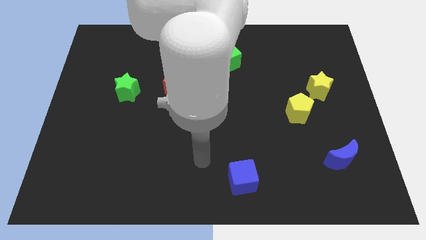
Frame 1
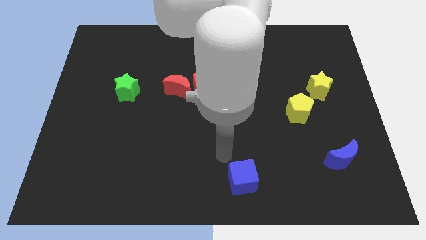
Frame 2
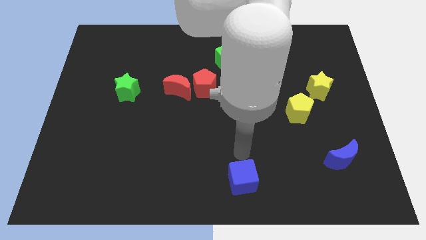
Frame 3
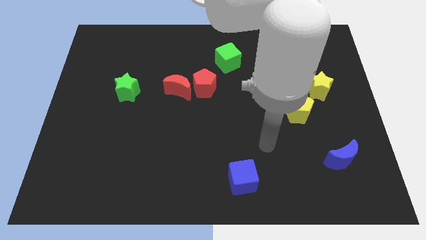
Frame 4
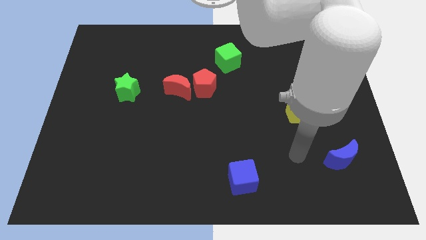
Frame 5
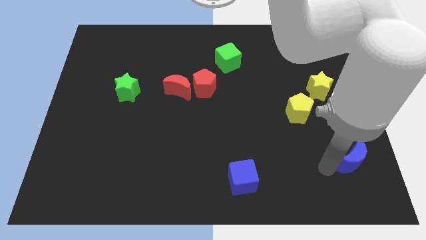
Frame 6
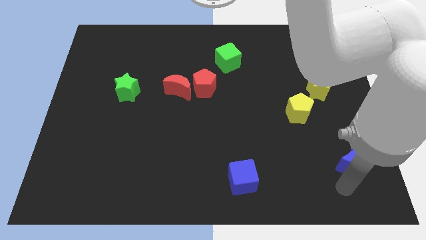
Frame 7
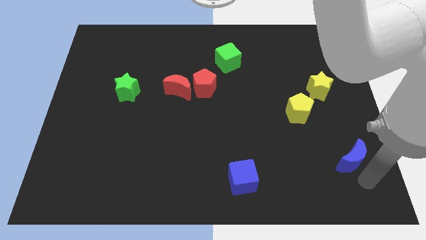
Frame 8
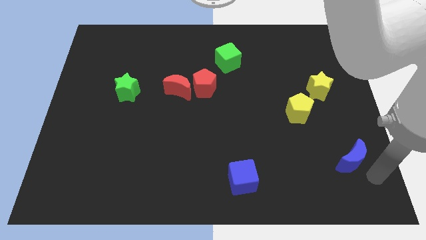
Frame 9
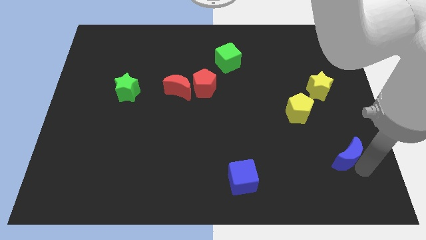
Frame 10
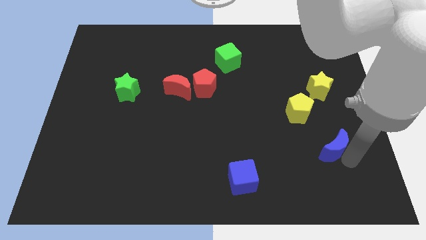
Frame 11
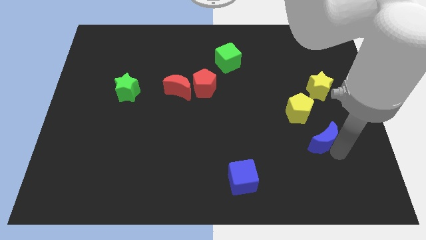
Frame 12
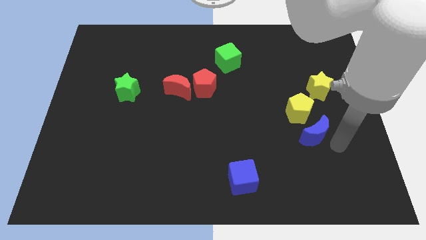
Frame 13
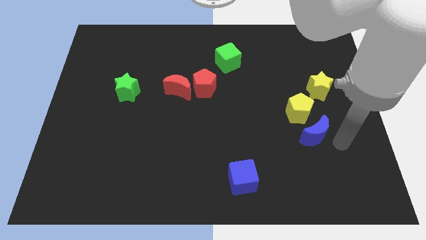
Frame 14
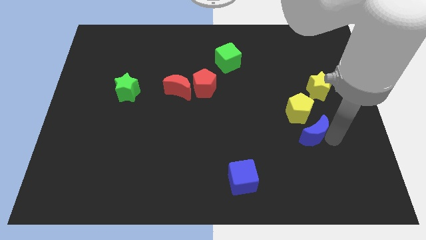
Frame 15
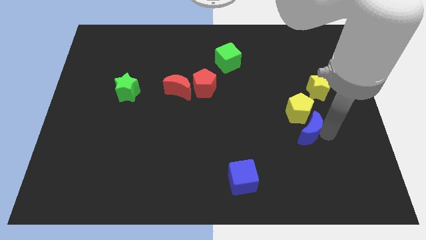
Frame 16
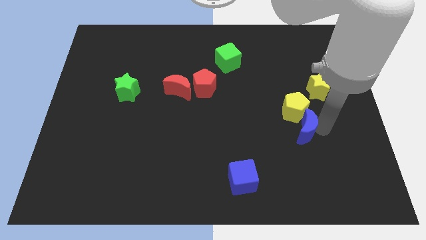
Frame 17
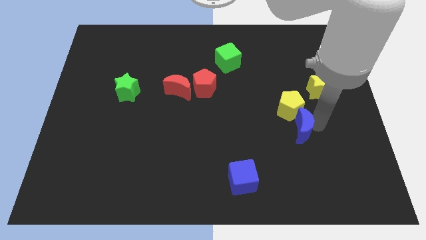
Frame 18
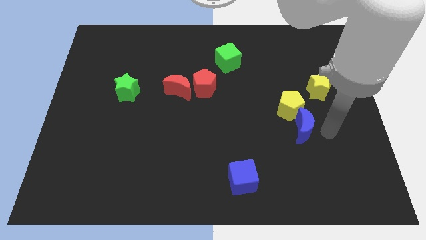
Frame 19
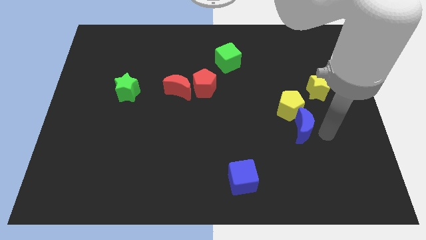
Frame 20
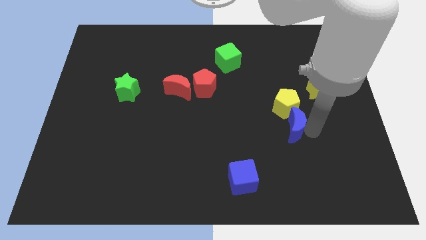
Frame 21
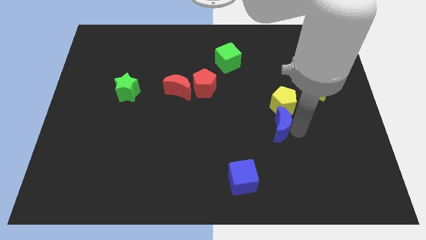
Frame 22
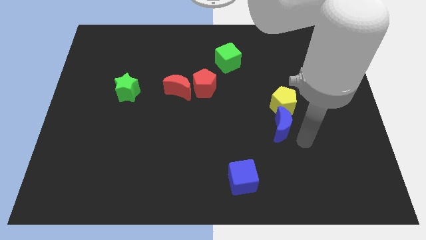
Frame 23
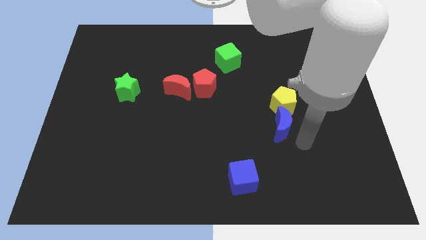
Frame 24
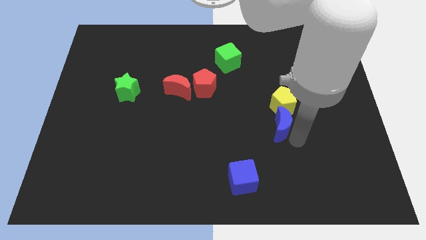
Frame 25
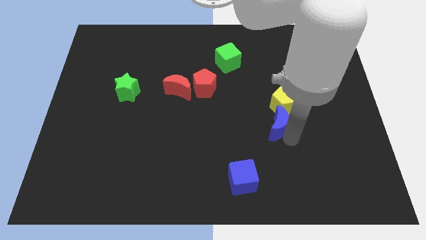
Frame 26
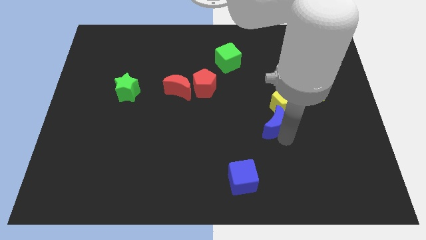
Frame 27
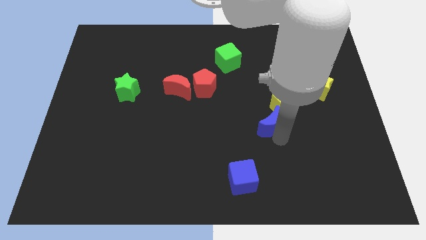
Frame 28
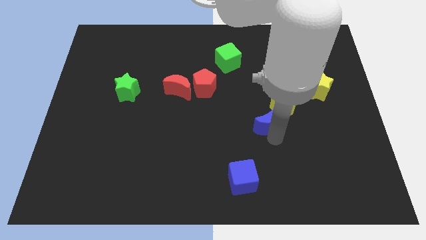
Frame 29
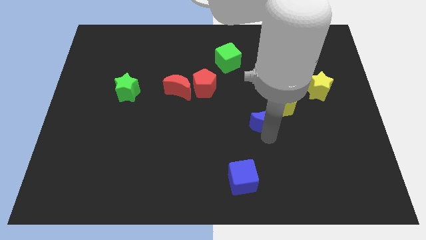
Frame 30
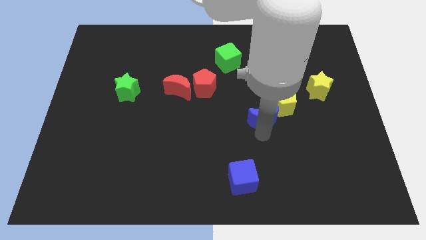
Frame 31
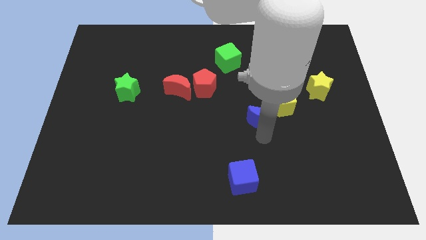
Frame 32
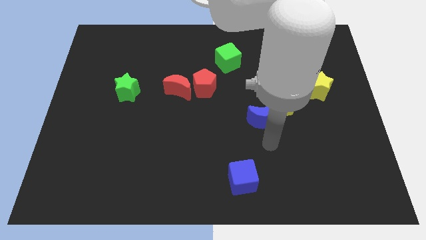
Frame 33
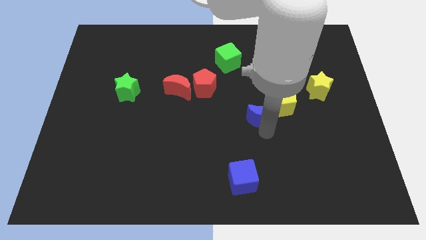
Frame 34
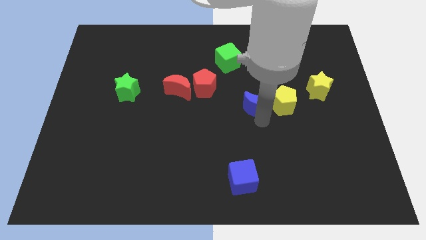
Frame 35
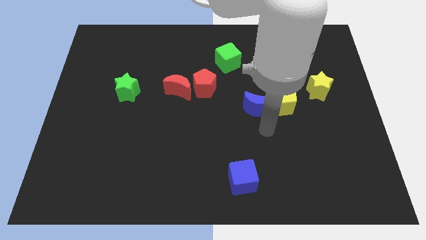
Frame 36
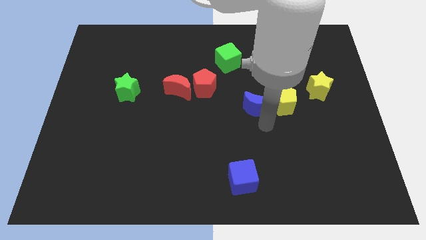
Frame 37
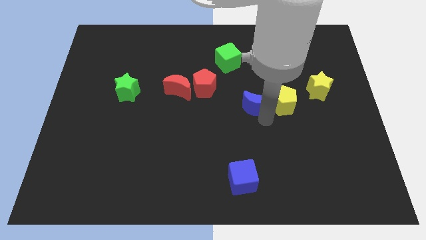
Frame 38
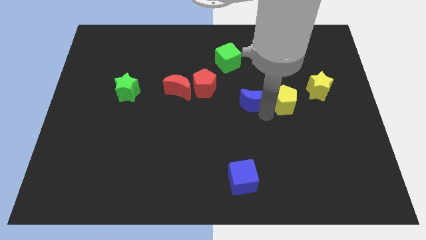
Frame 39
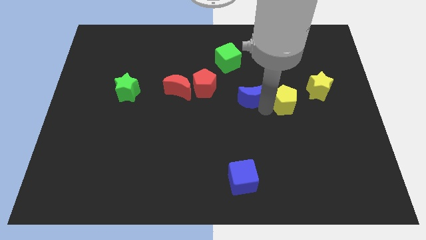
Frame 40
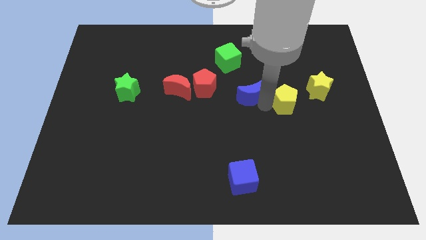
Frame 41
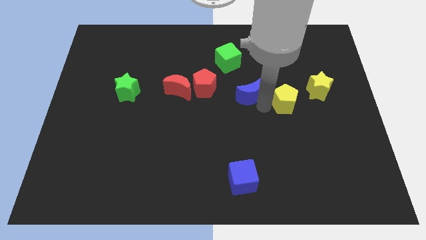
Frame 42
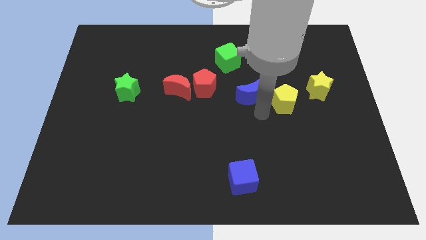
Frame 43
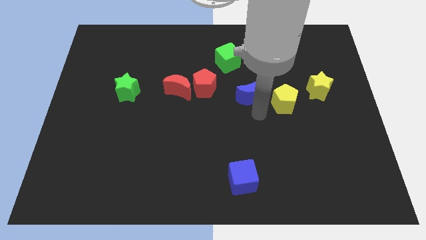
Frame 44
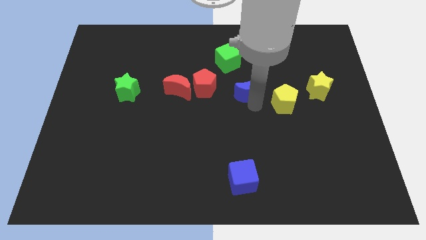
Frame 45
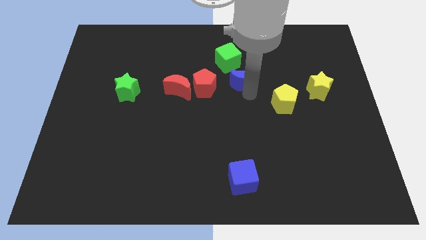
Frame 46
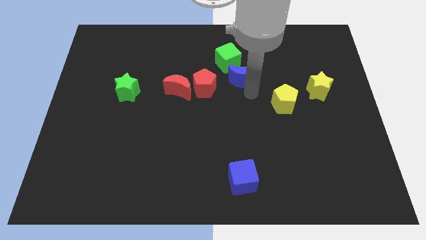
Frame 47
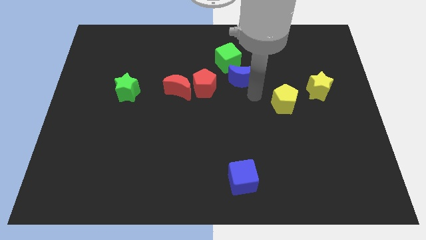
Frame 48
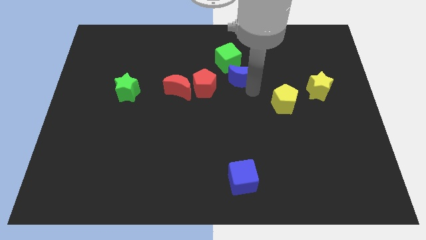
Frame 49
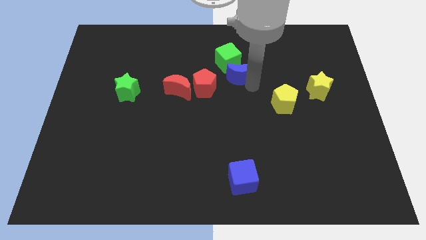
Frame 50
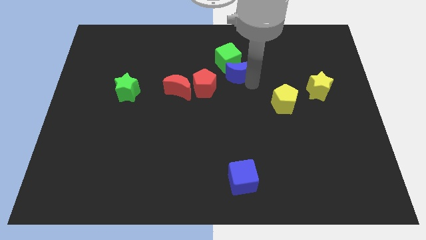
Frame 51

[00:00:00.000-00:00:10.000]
put the blue moon towards the green cube

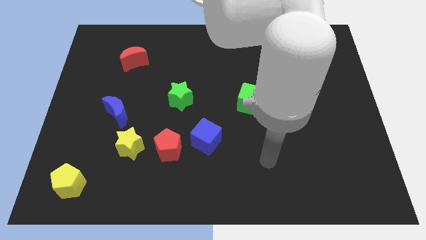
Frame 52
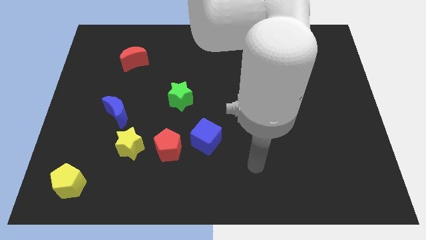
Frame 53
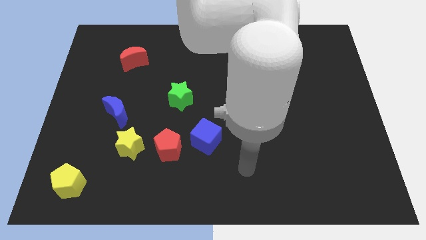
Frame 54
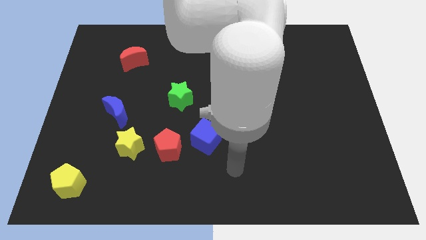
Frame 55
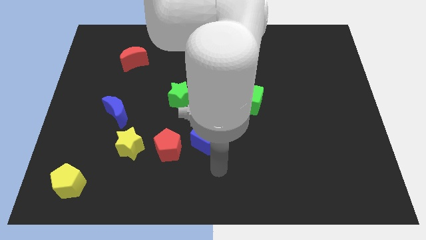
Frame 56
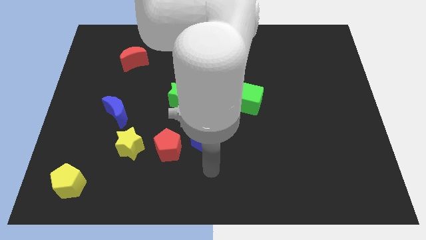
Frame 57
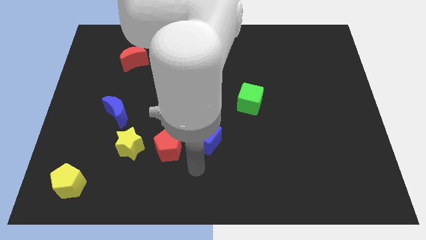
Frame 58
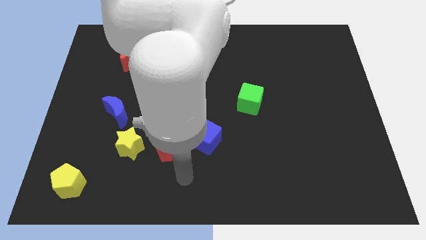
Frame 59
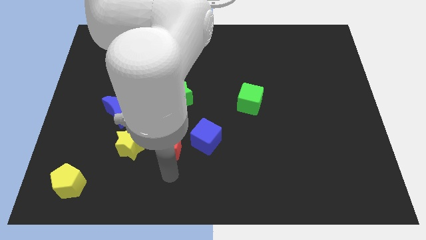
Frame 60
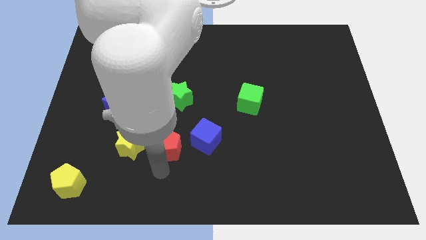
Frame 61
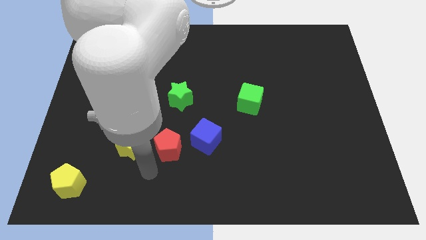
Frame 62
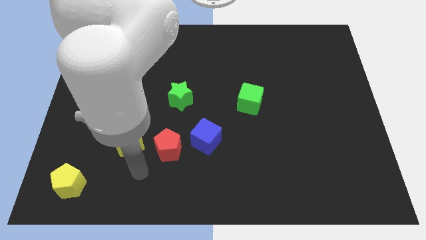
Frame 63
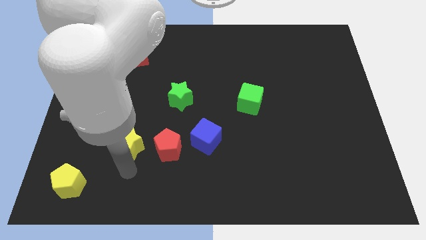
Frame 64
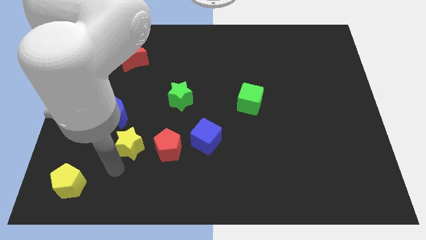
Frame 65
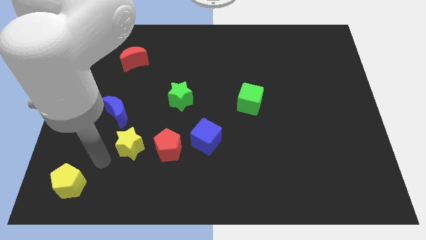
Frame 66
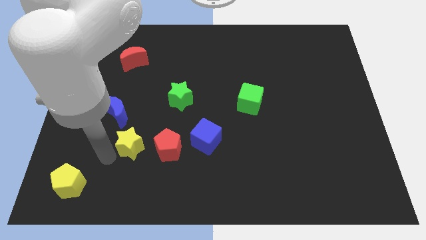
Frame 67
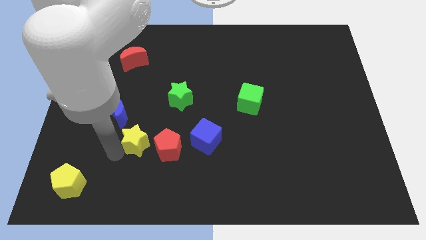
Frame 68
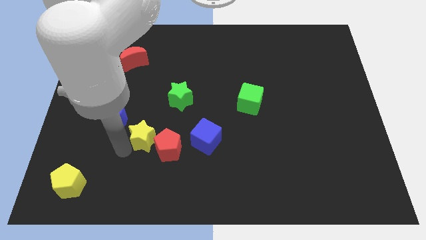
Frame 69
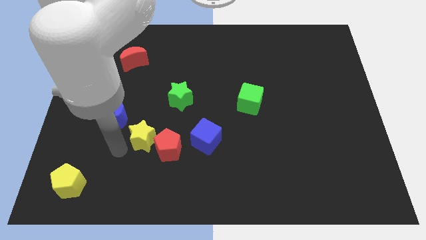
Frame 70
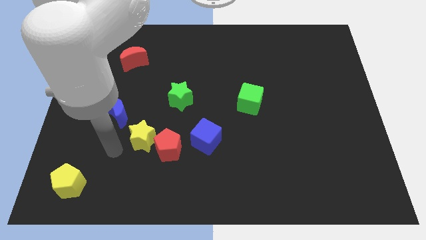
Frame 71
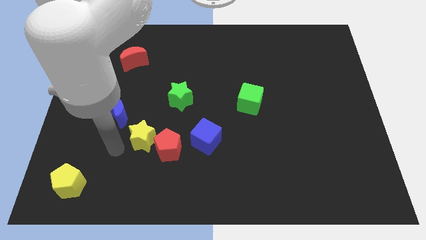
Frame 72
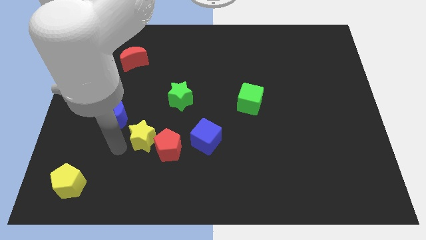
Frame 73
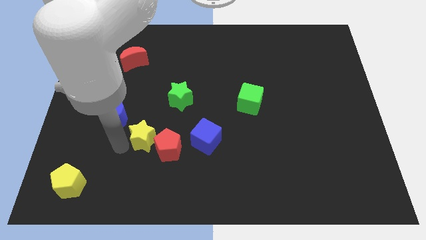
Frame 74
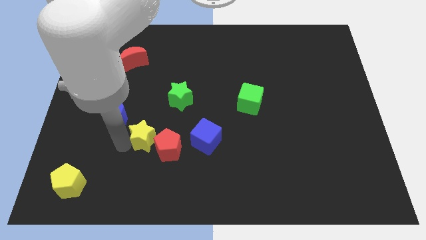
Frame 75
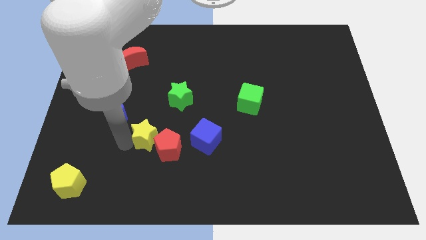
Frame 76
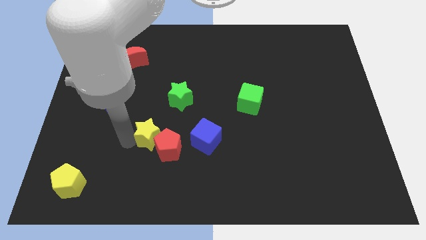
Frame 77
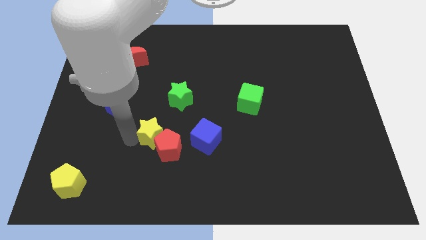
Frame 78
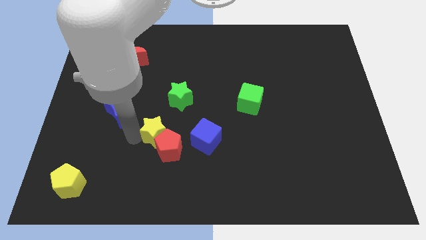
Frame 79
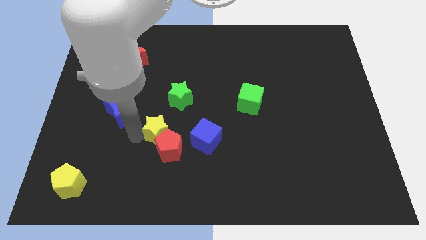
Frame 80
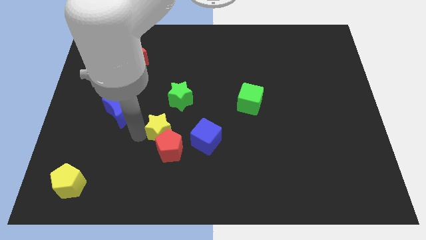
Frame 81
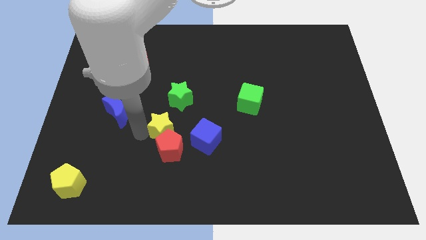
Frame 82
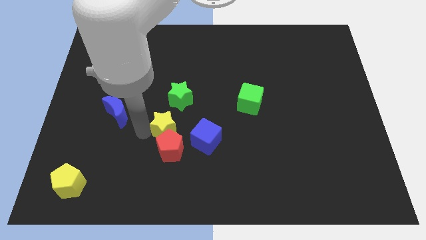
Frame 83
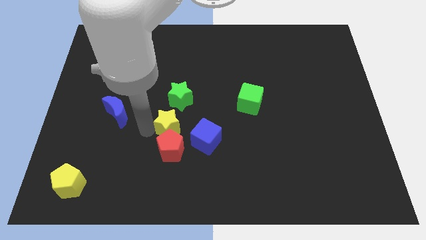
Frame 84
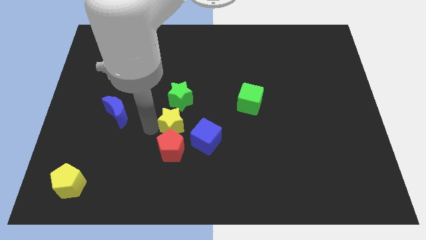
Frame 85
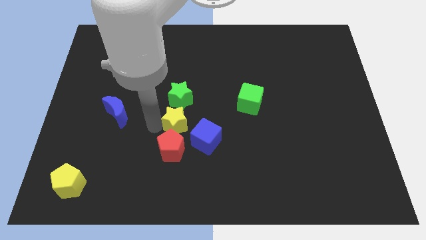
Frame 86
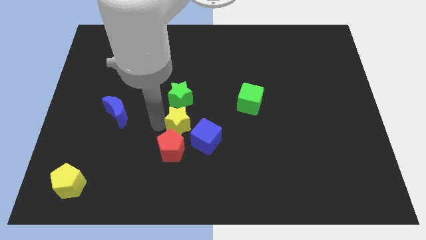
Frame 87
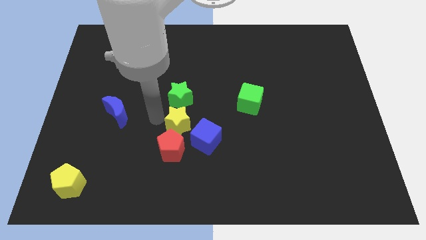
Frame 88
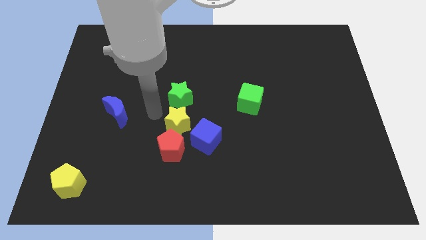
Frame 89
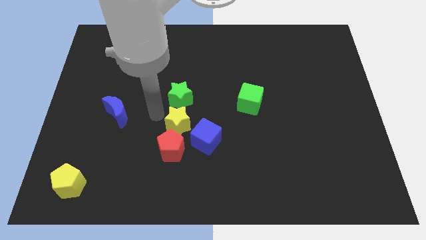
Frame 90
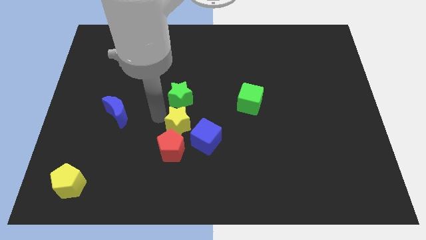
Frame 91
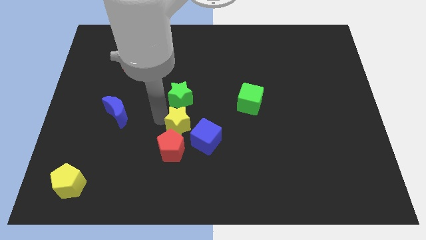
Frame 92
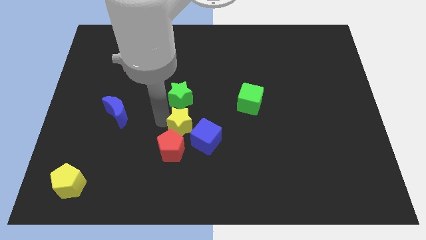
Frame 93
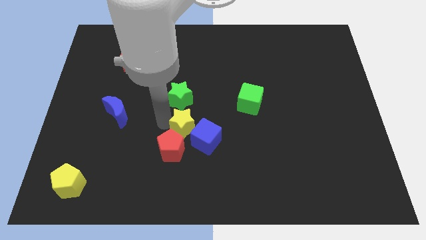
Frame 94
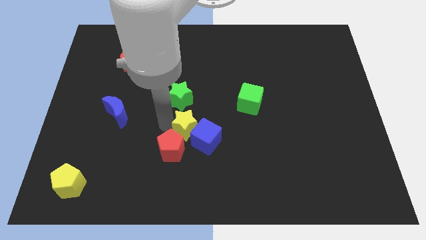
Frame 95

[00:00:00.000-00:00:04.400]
move the yellow star close to the blue cube
